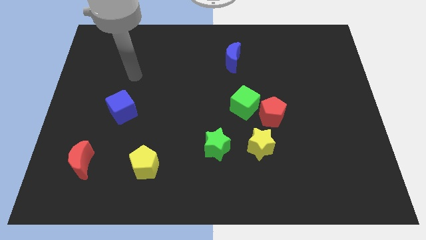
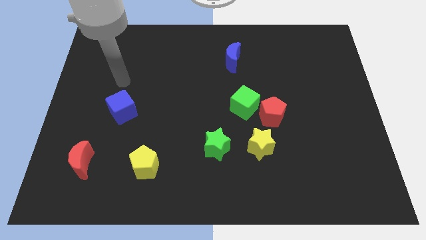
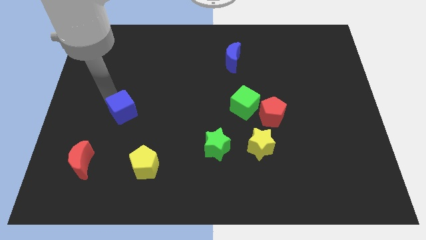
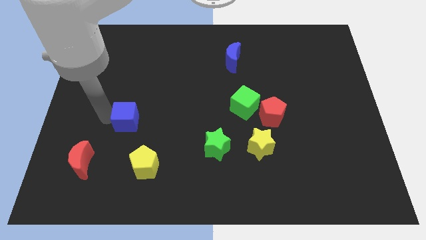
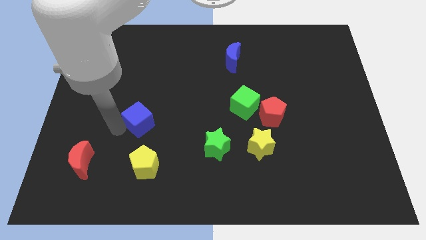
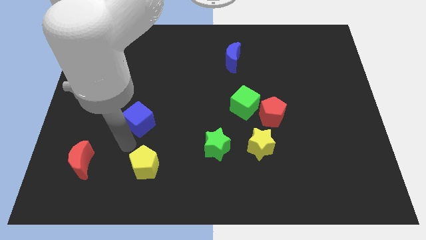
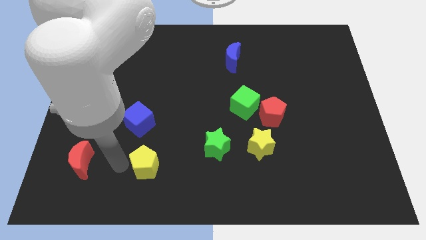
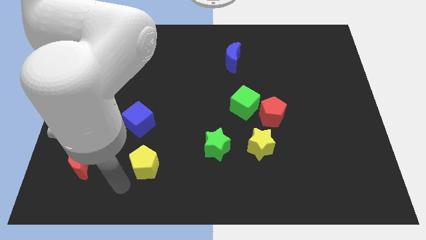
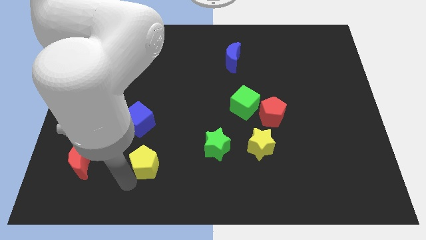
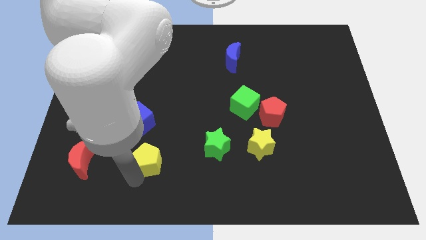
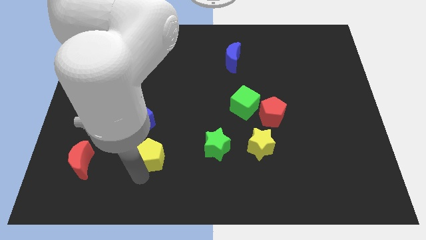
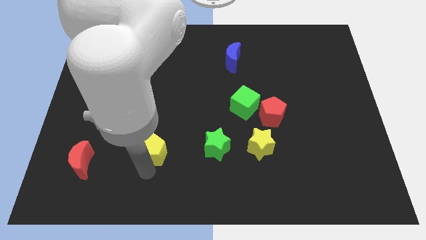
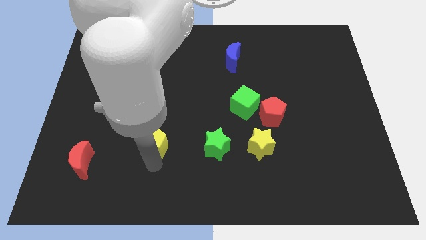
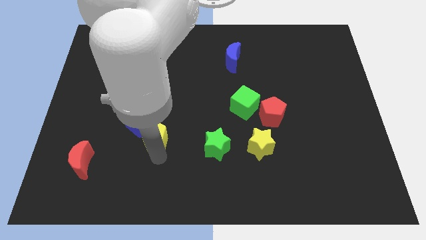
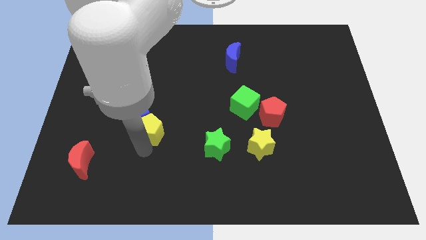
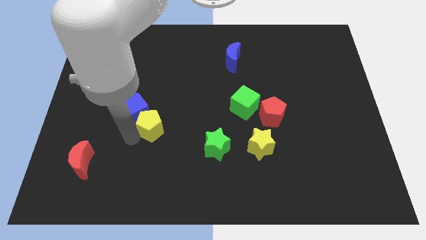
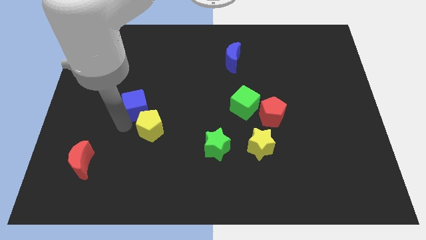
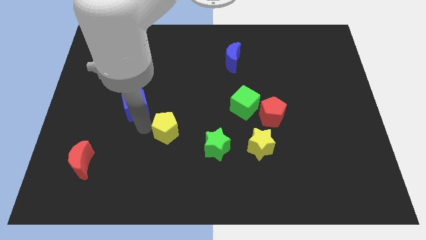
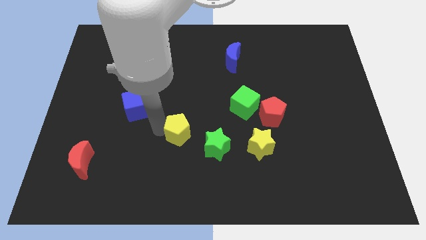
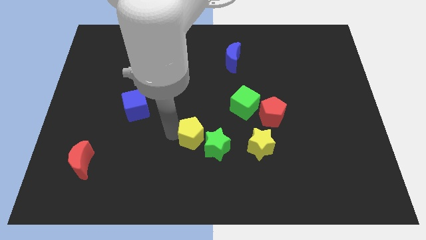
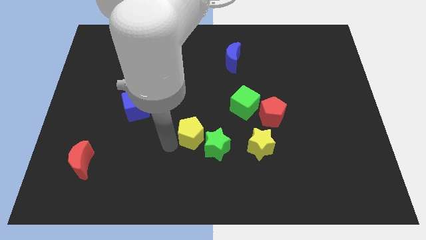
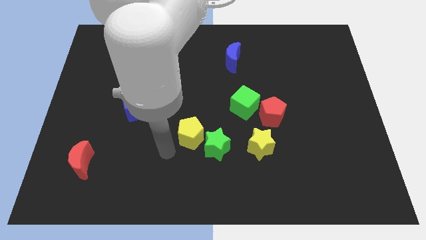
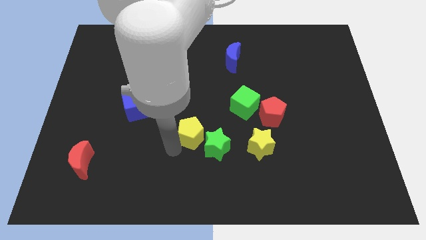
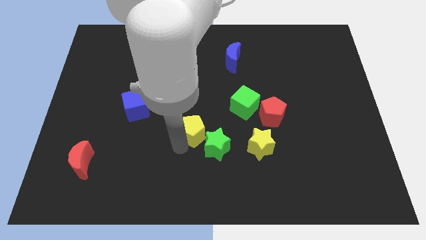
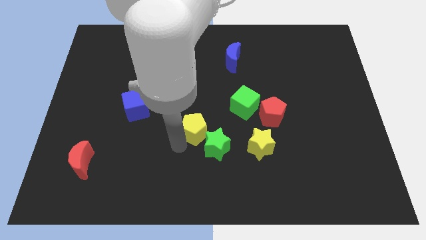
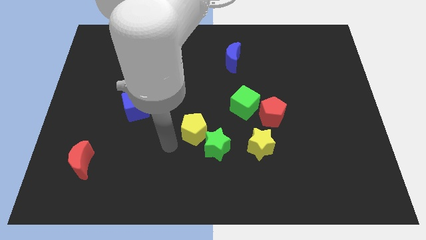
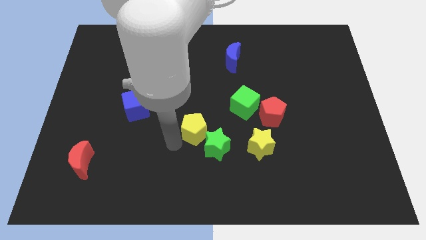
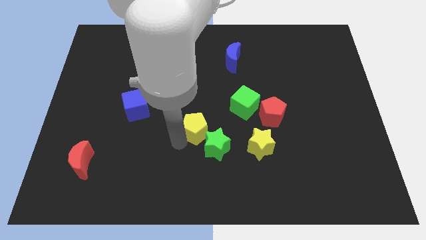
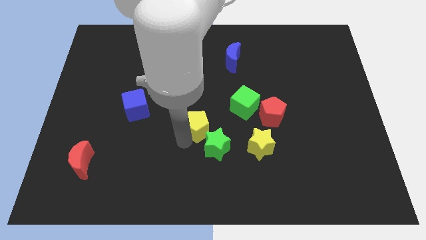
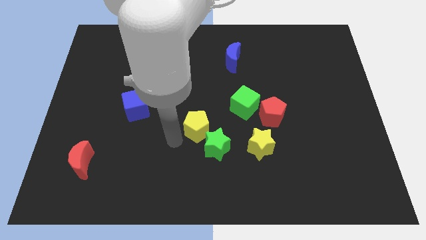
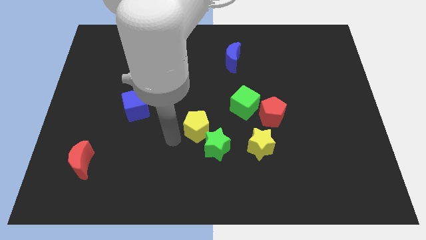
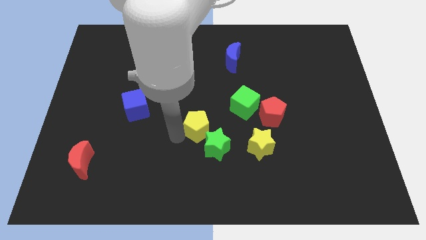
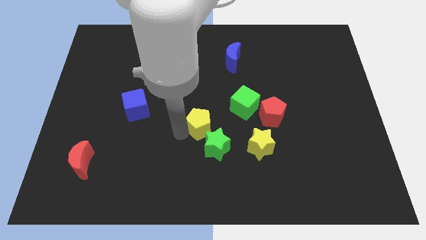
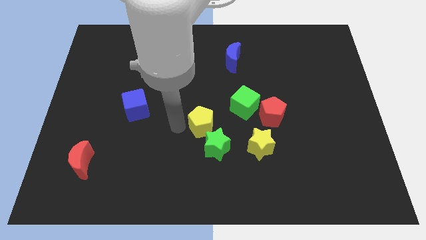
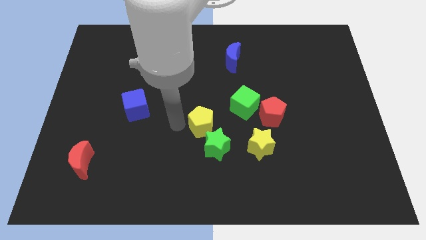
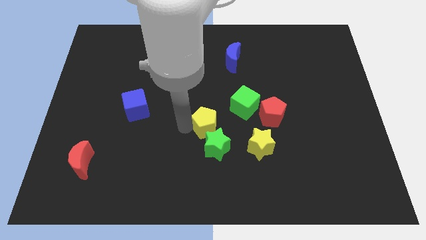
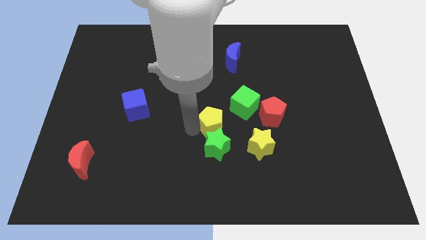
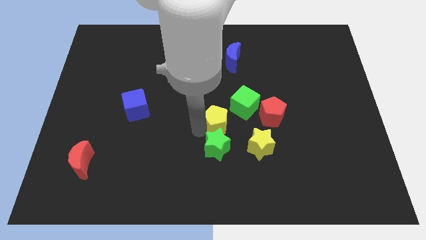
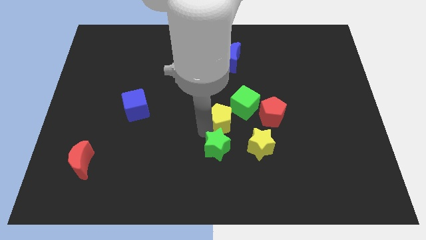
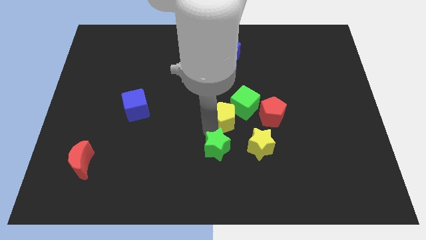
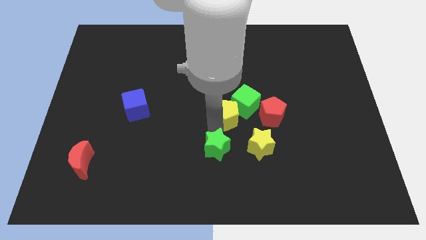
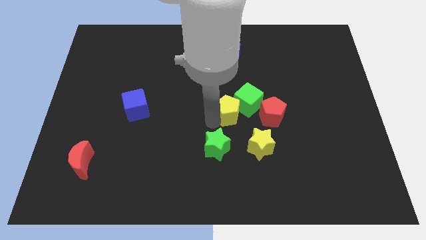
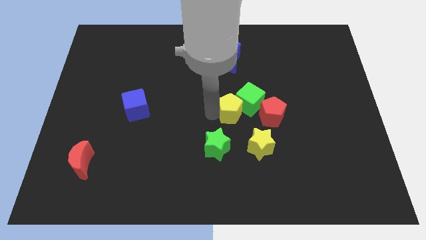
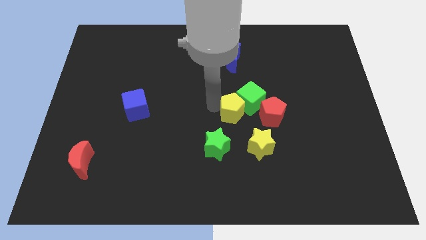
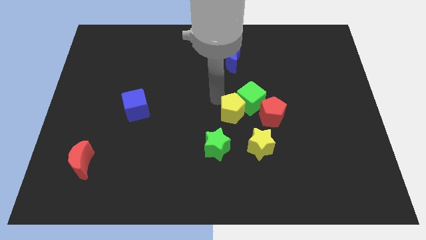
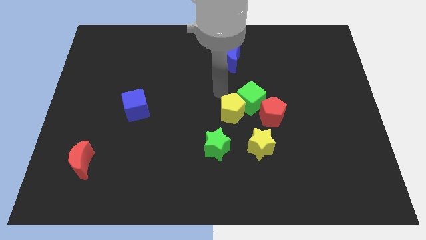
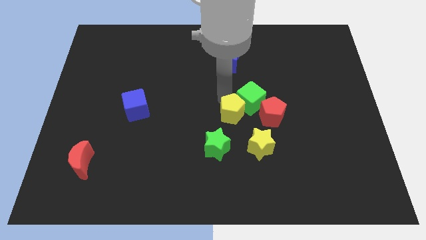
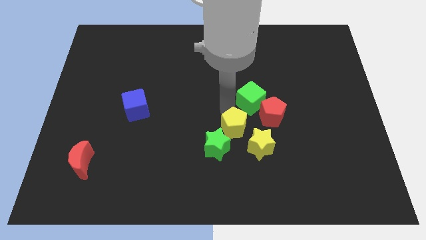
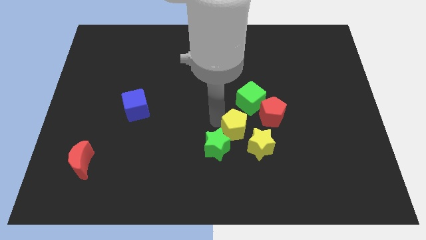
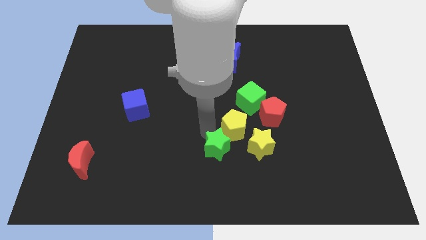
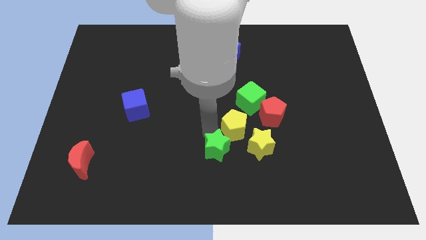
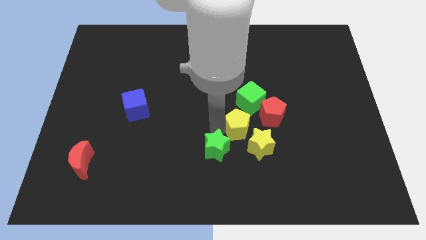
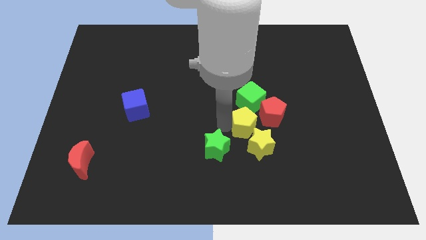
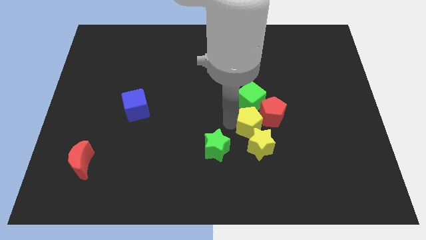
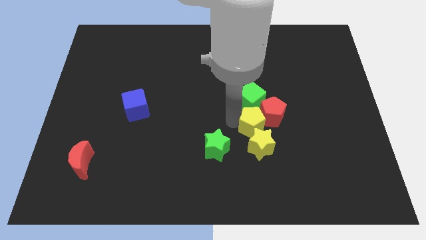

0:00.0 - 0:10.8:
slide the yellow pentagon diagonally down and to the right of the green cube
